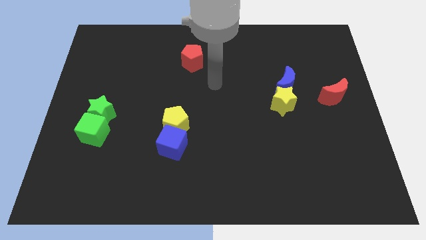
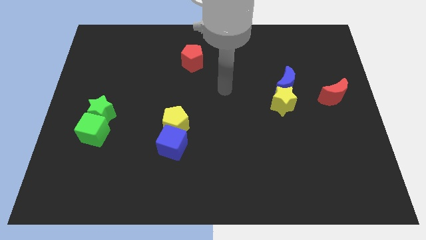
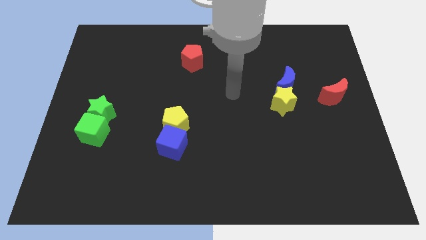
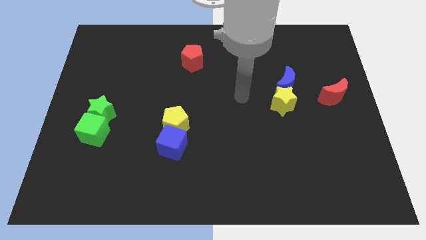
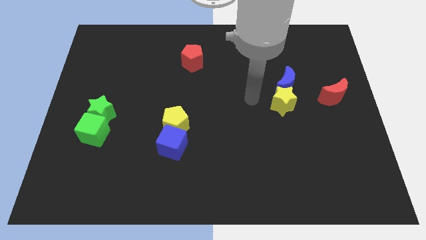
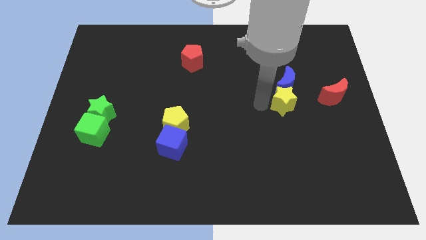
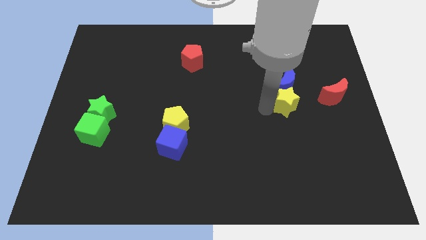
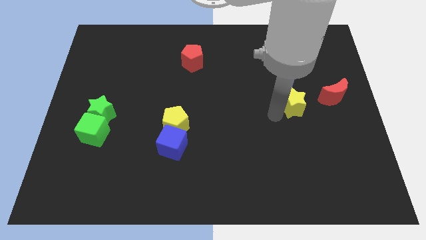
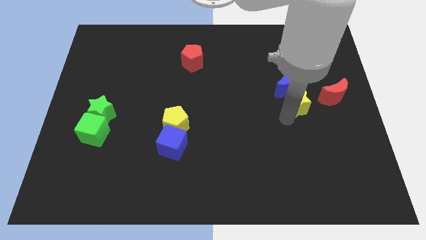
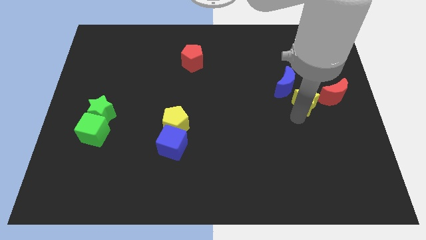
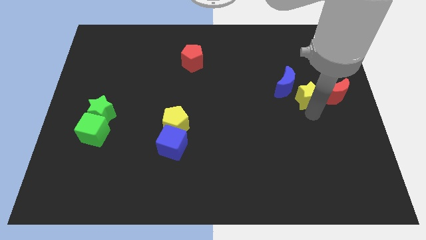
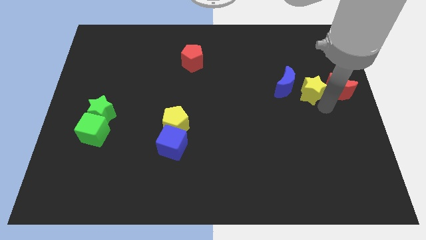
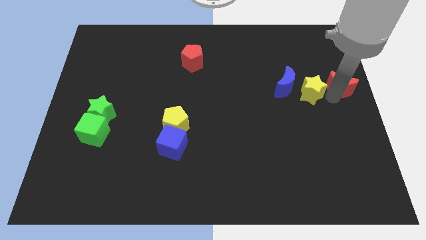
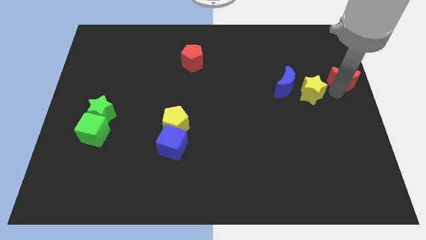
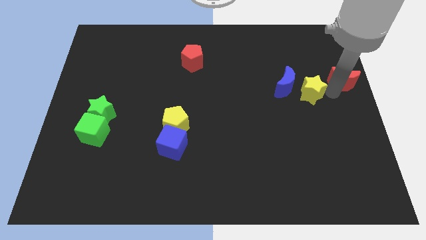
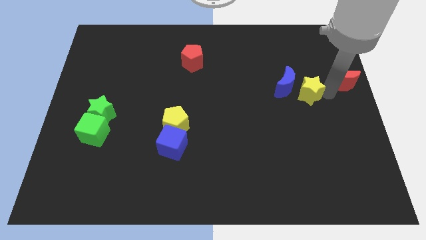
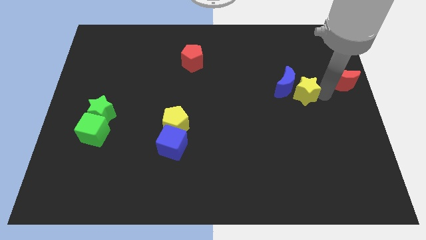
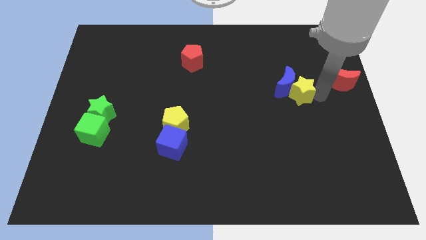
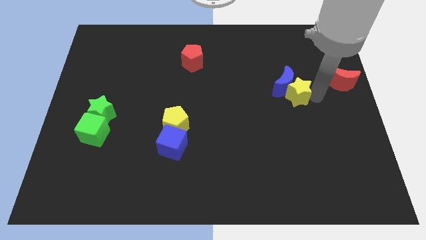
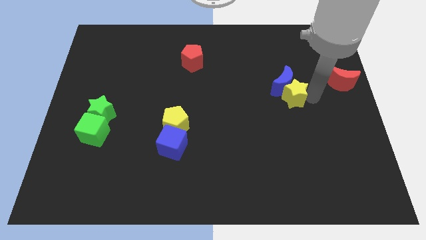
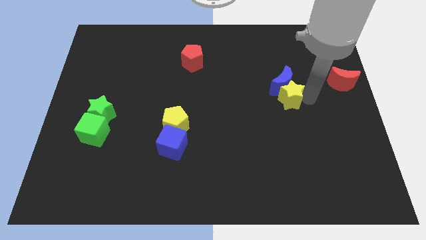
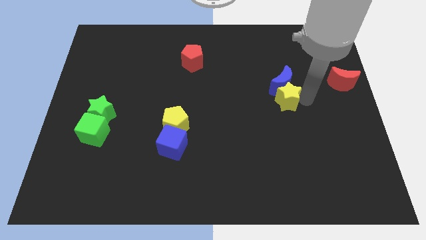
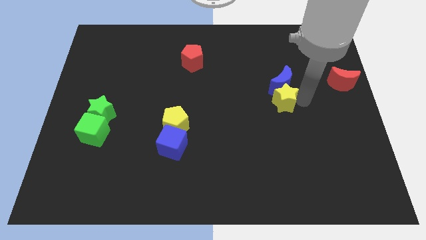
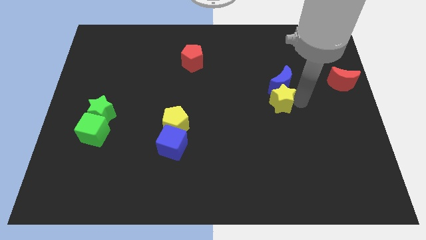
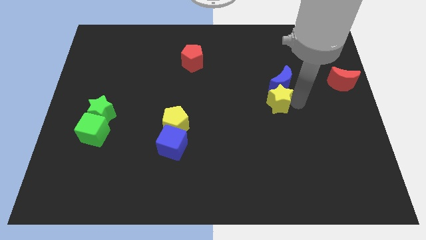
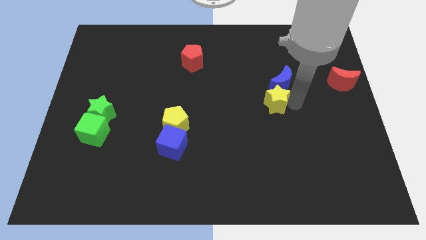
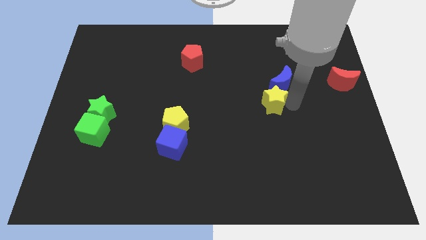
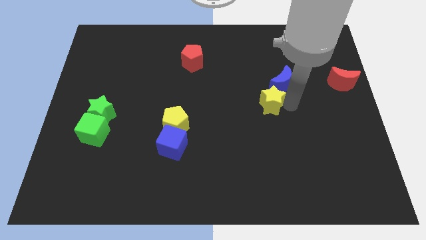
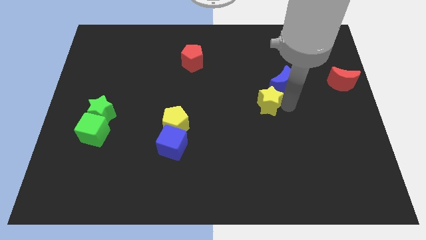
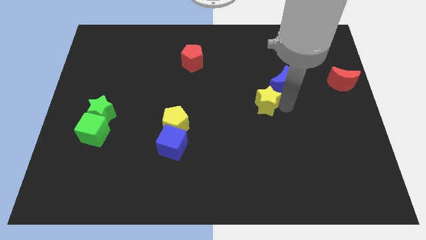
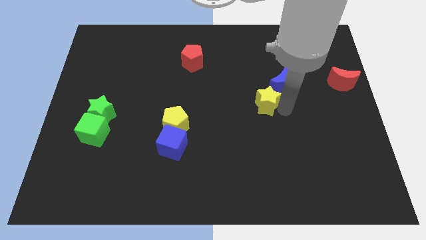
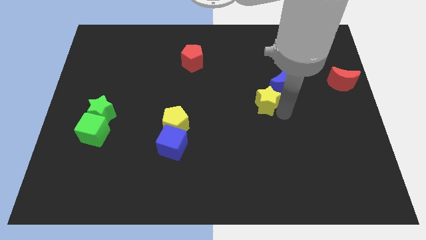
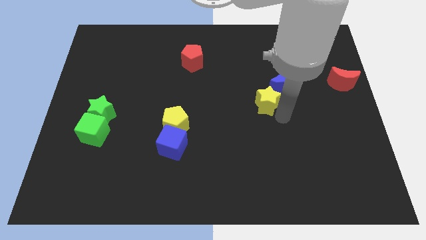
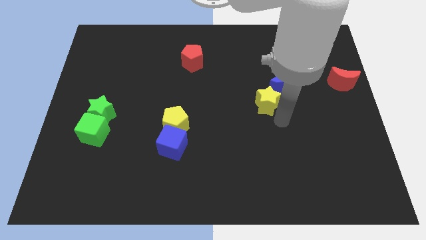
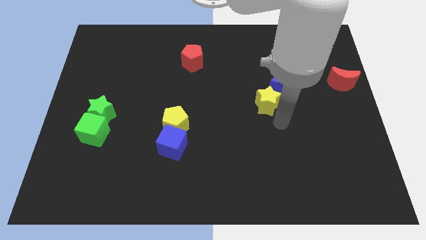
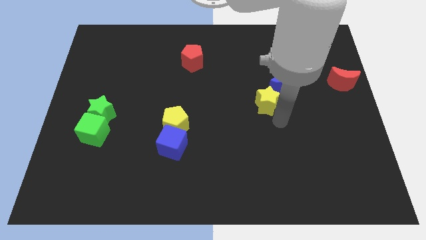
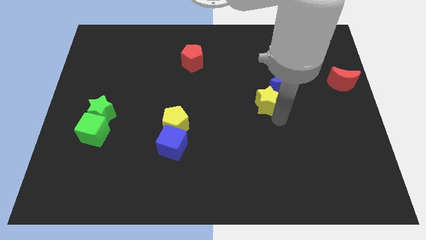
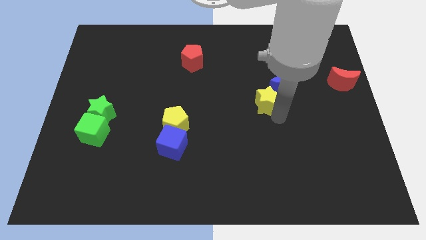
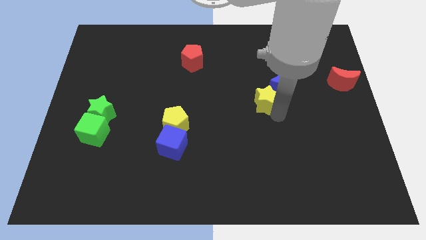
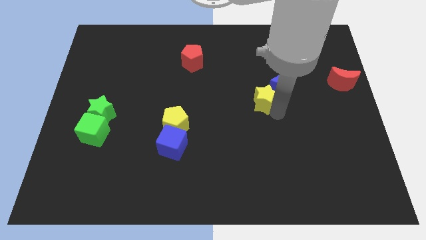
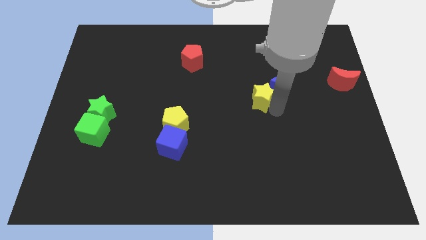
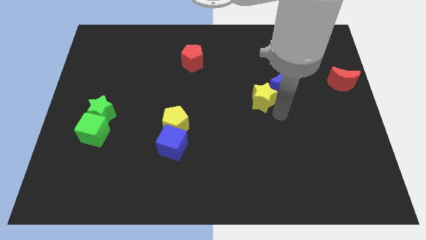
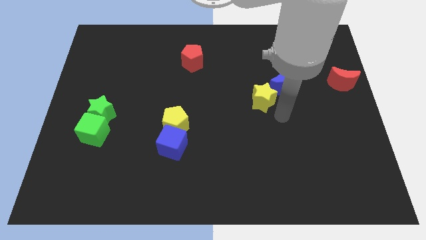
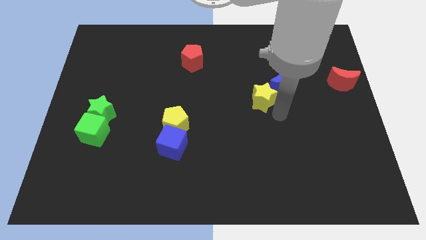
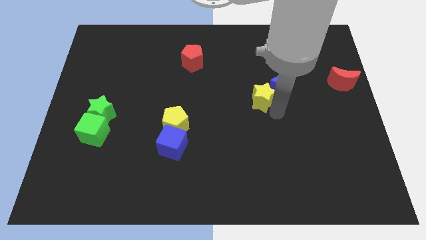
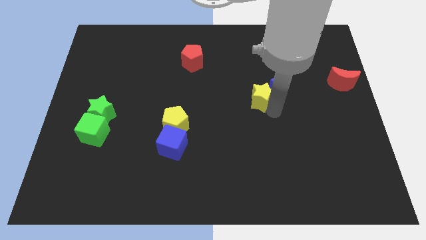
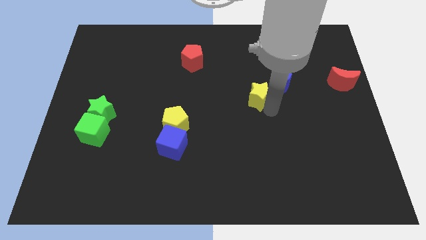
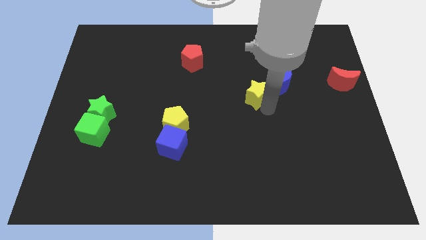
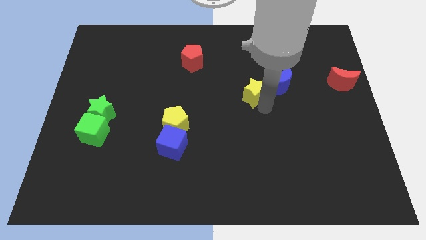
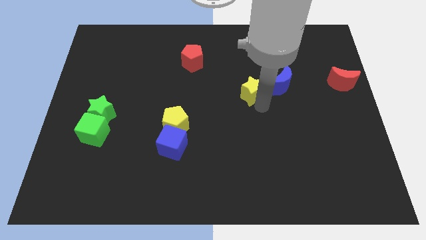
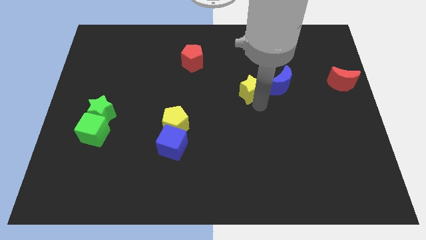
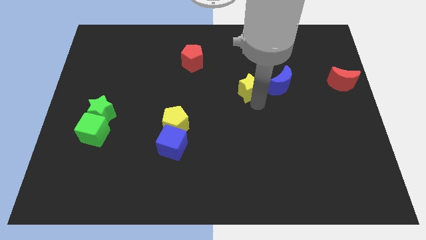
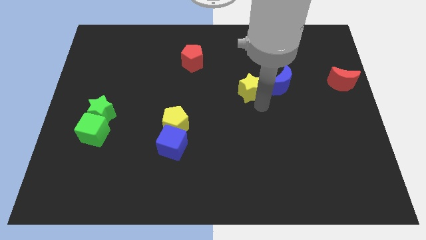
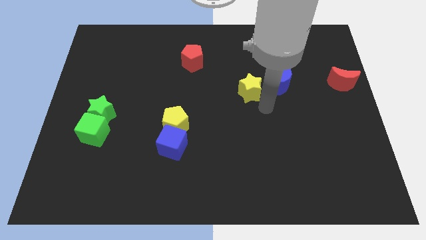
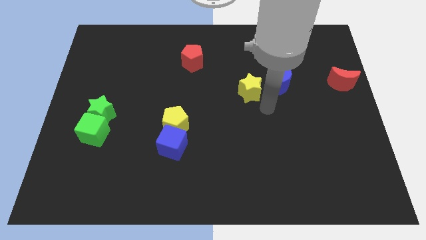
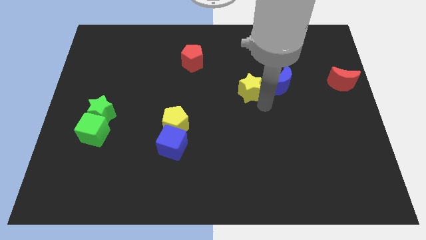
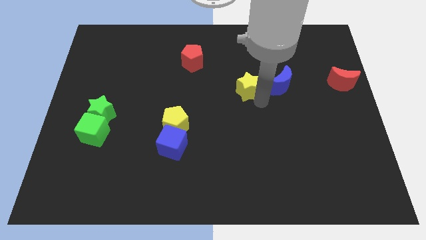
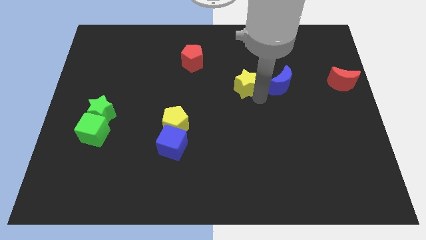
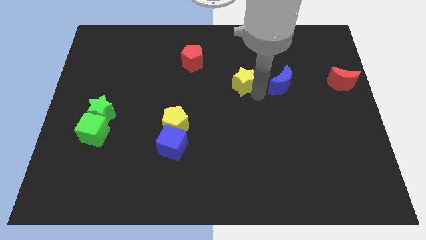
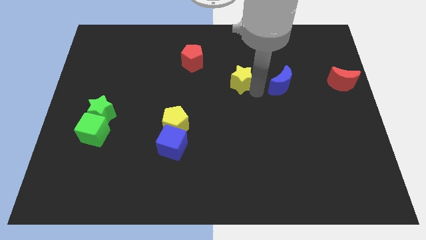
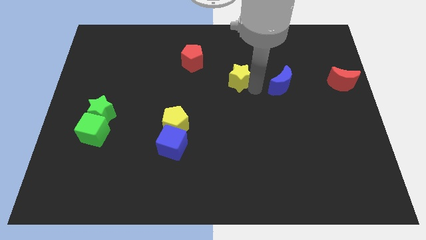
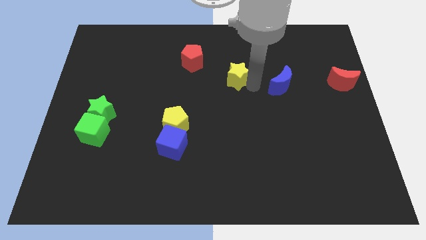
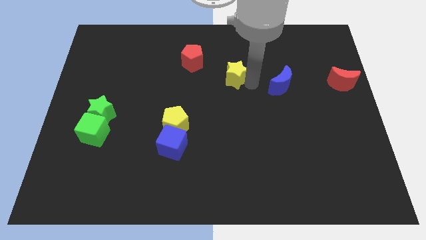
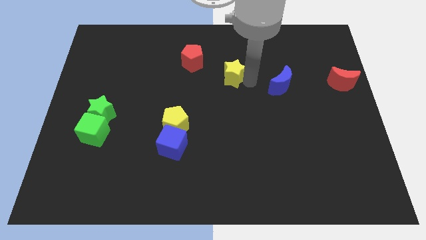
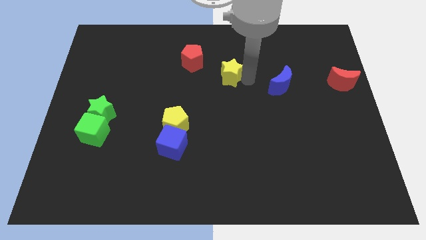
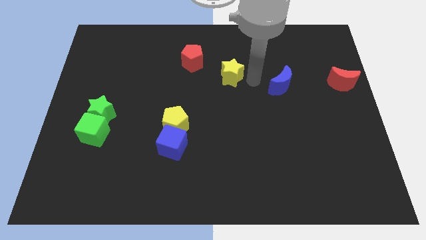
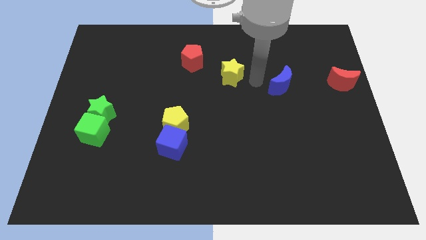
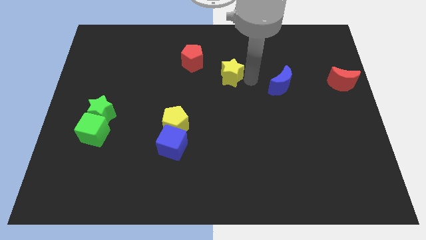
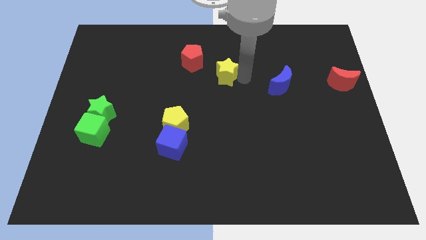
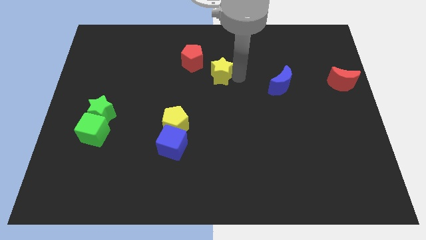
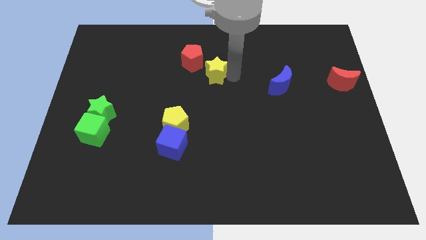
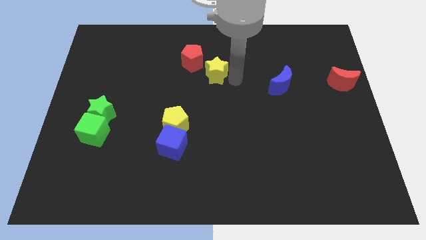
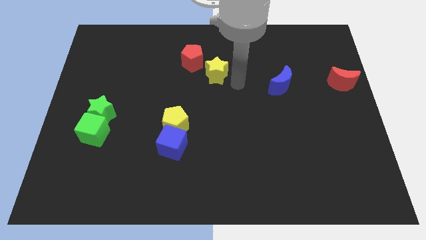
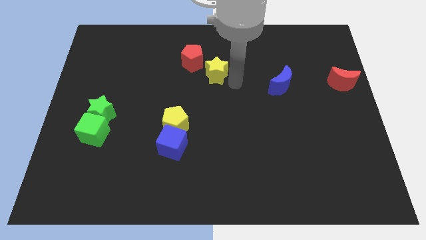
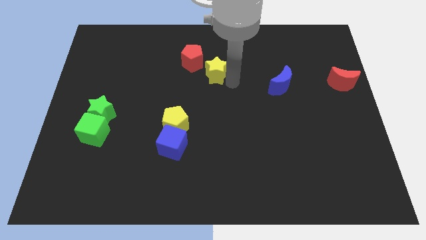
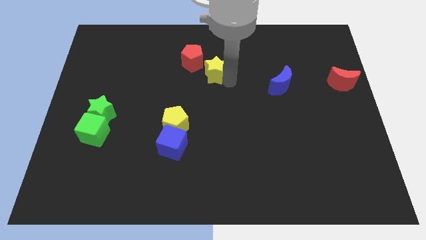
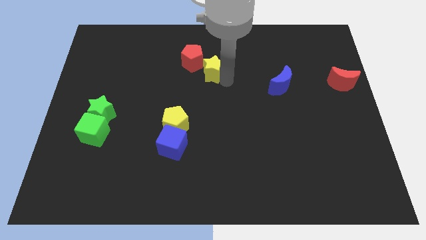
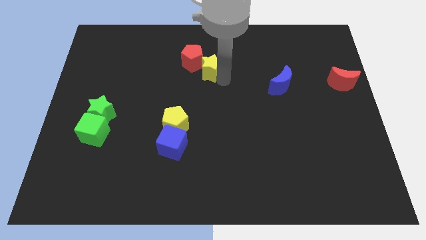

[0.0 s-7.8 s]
move the yellow star close to the red pentagon
